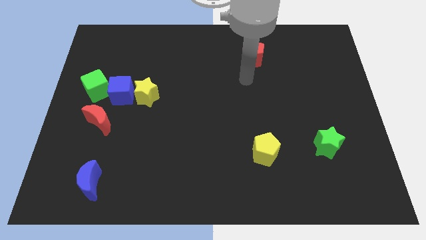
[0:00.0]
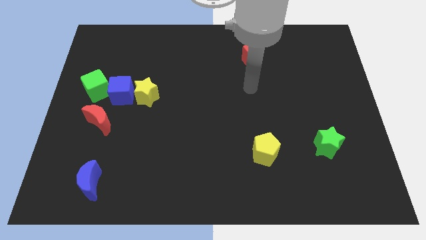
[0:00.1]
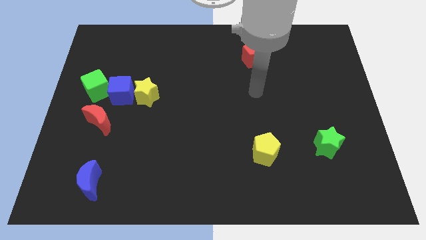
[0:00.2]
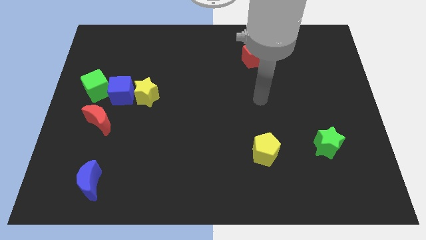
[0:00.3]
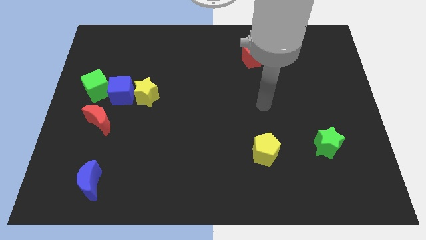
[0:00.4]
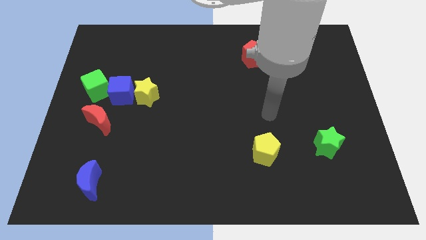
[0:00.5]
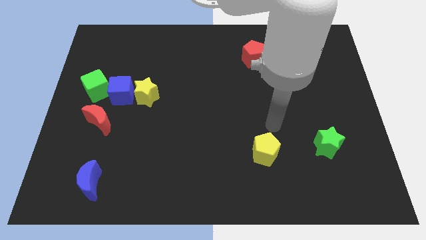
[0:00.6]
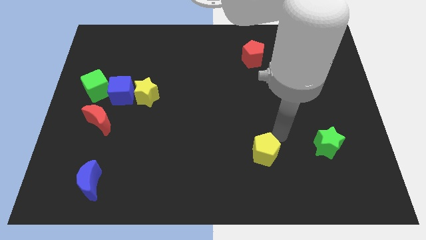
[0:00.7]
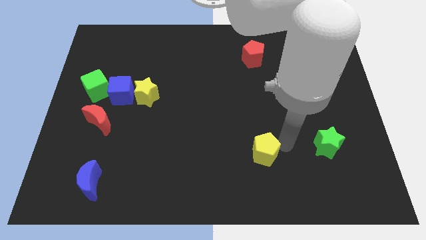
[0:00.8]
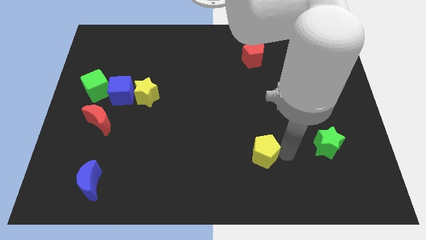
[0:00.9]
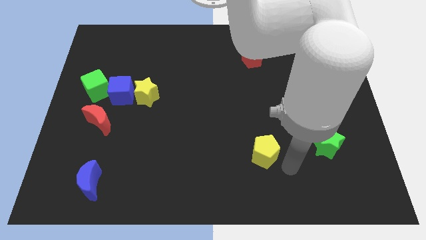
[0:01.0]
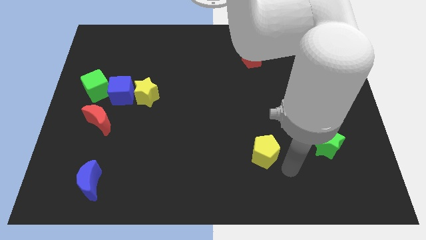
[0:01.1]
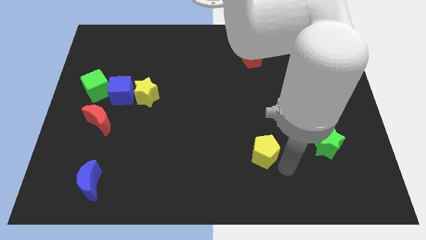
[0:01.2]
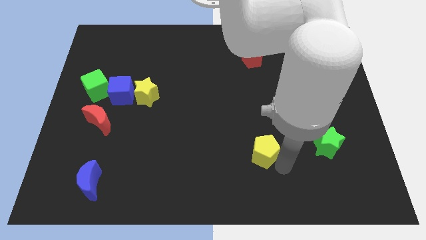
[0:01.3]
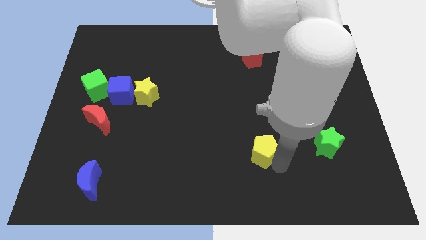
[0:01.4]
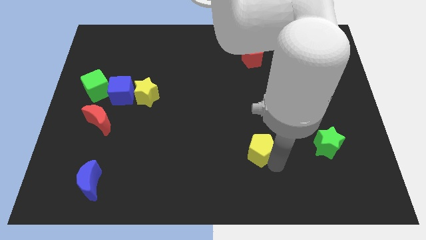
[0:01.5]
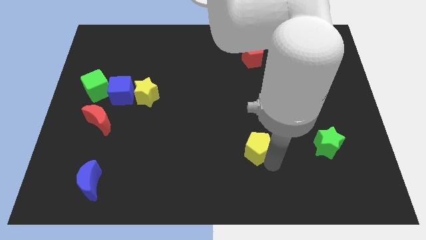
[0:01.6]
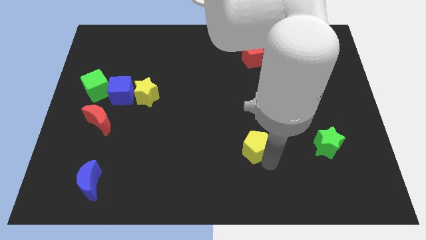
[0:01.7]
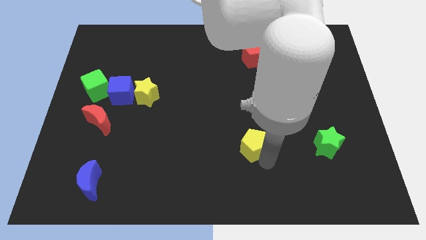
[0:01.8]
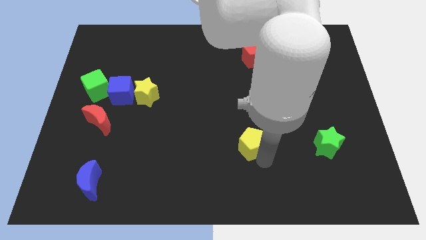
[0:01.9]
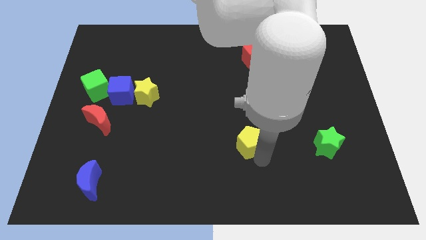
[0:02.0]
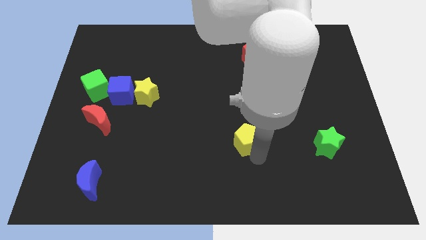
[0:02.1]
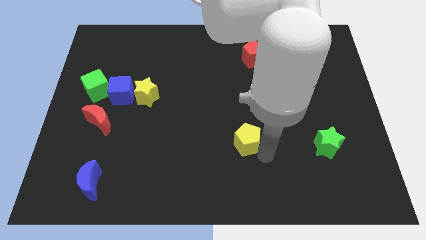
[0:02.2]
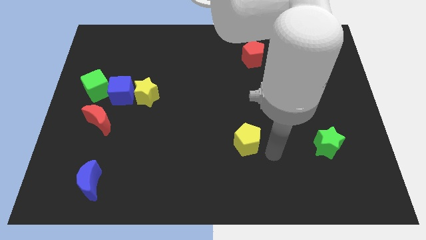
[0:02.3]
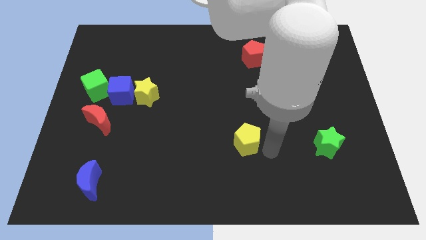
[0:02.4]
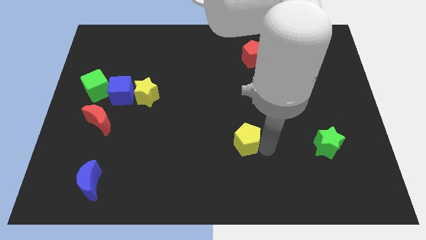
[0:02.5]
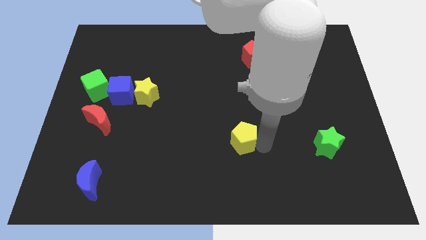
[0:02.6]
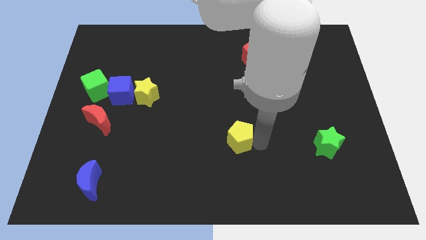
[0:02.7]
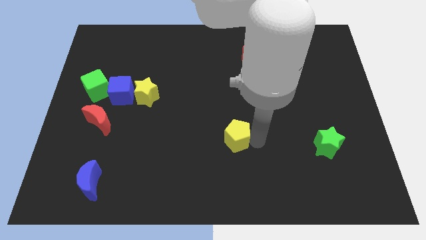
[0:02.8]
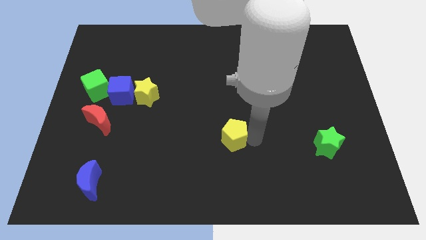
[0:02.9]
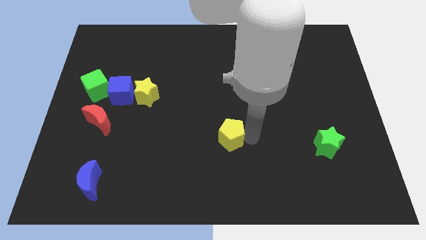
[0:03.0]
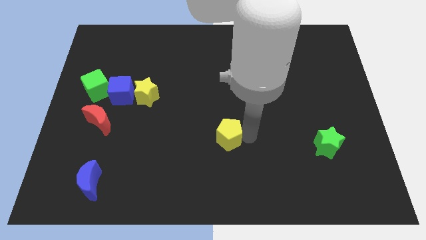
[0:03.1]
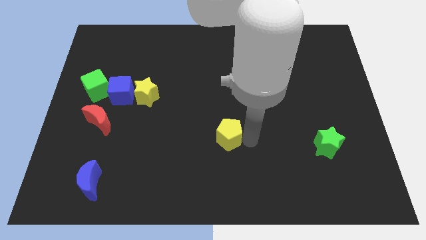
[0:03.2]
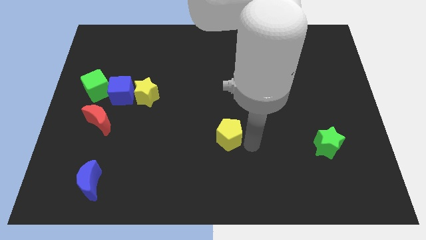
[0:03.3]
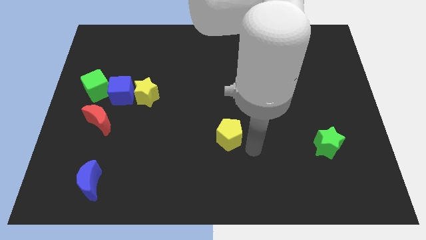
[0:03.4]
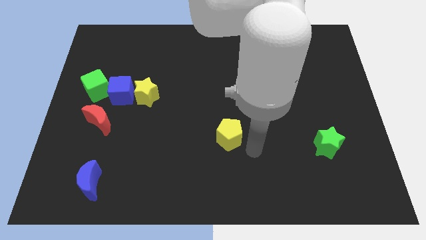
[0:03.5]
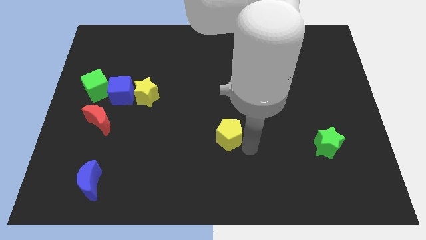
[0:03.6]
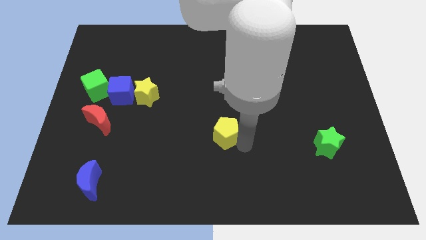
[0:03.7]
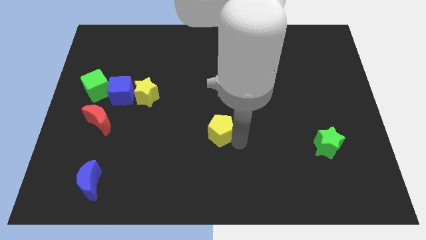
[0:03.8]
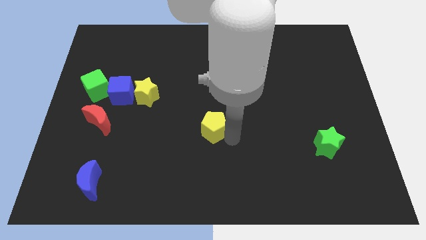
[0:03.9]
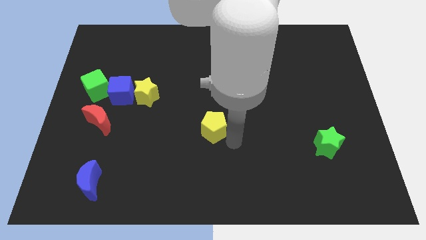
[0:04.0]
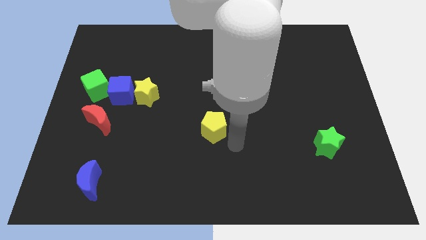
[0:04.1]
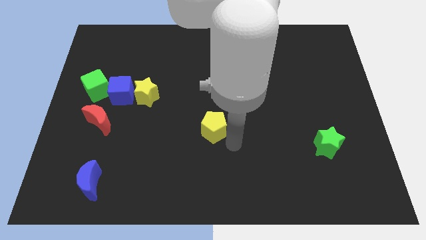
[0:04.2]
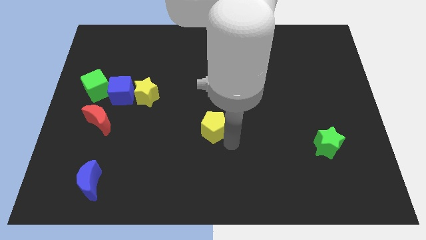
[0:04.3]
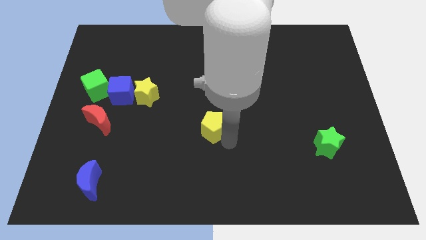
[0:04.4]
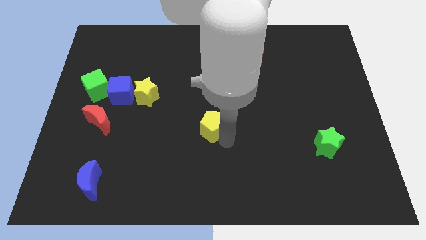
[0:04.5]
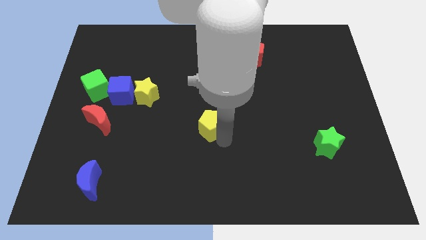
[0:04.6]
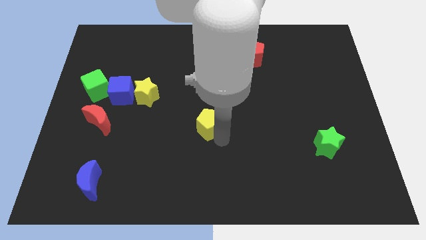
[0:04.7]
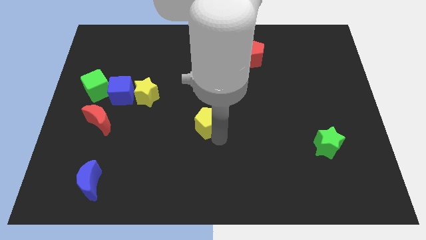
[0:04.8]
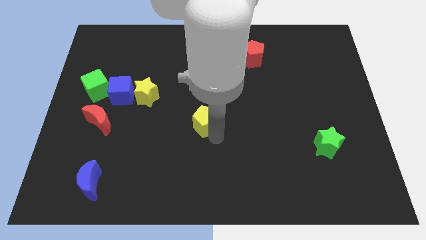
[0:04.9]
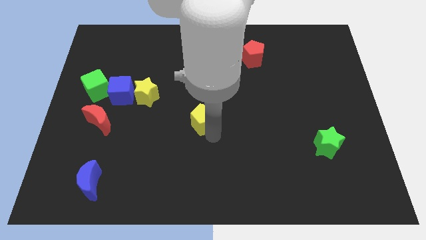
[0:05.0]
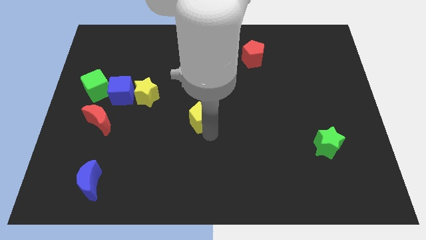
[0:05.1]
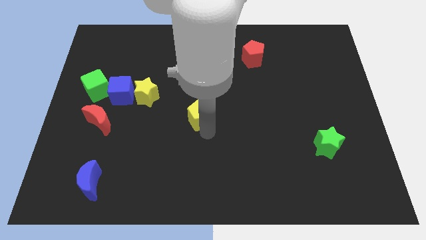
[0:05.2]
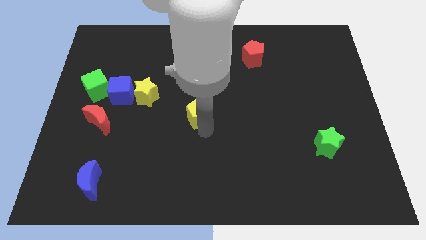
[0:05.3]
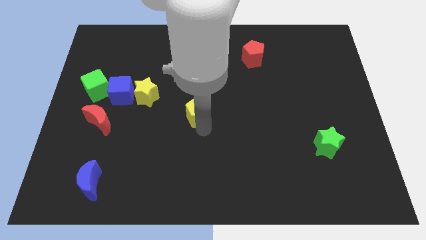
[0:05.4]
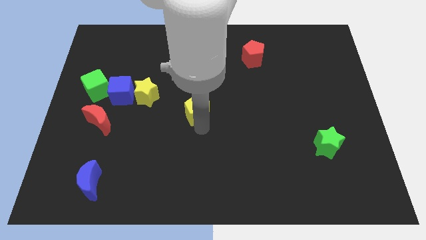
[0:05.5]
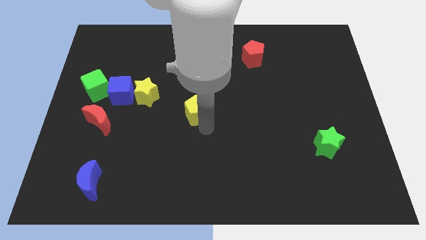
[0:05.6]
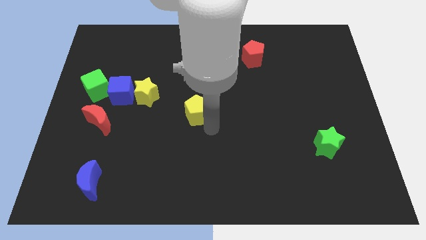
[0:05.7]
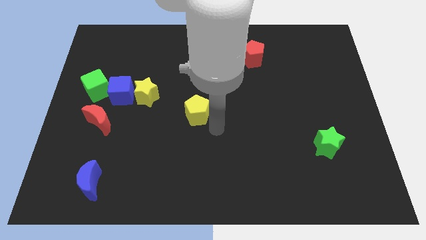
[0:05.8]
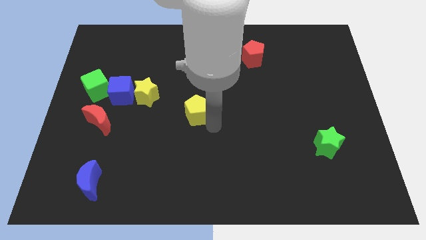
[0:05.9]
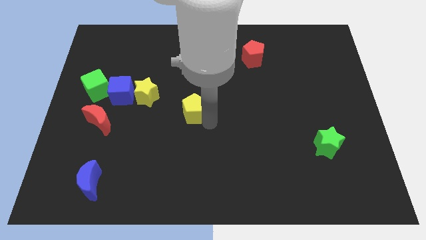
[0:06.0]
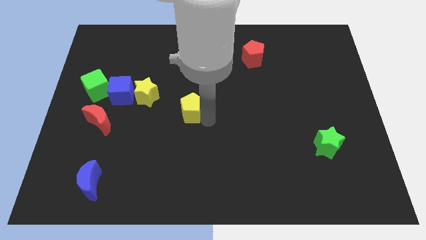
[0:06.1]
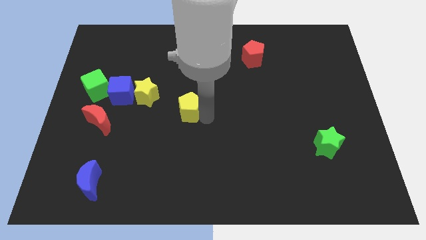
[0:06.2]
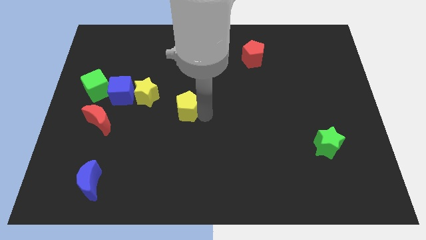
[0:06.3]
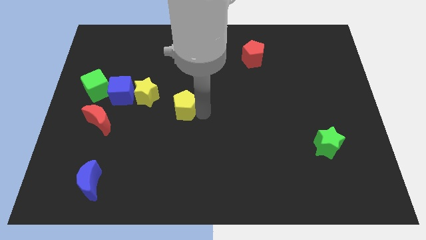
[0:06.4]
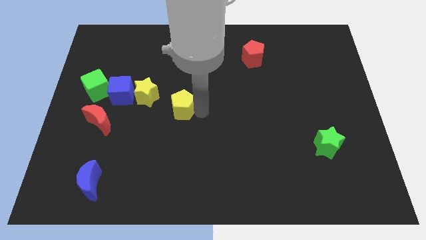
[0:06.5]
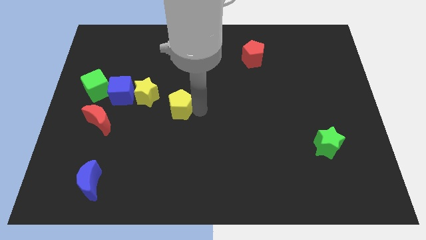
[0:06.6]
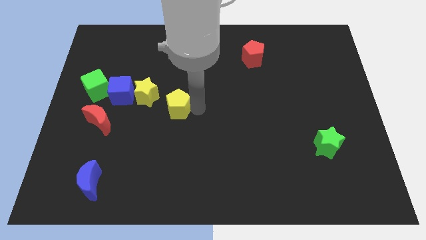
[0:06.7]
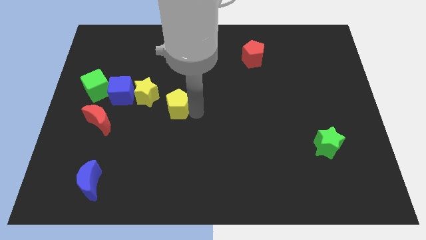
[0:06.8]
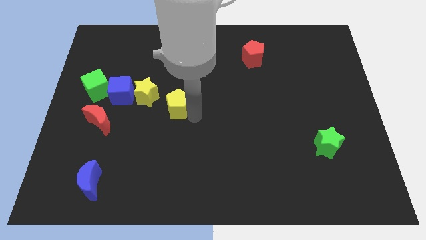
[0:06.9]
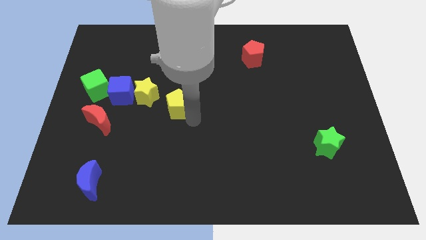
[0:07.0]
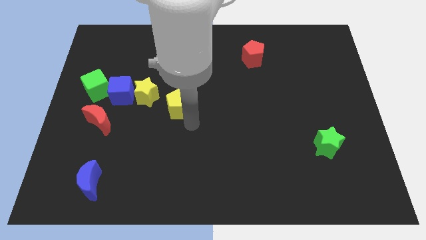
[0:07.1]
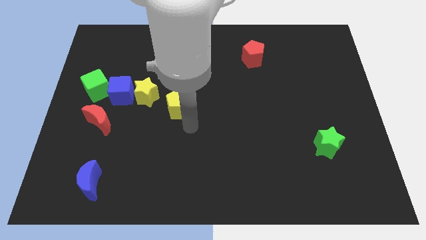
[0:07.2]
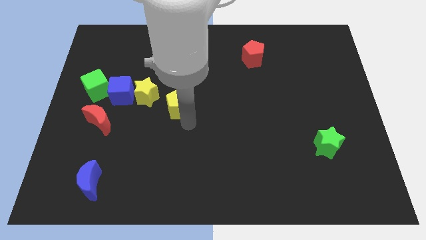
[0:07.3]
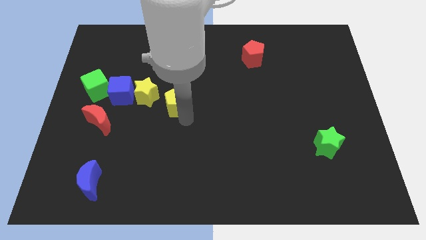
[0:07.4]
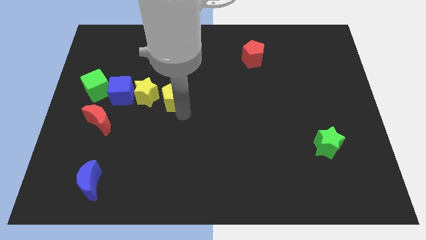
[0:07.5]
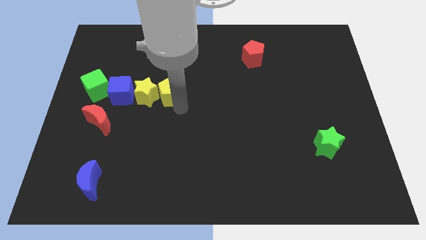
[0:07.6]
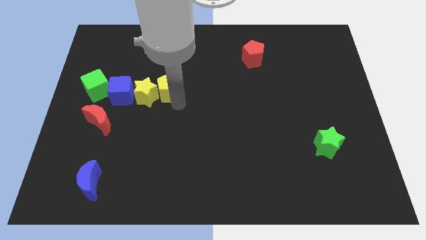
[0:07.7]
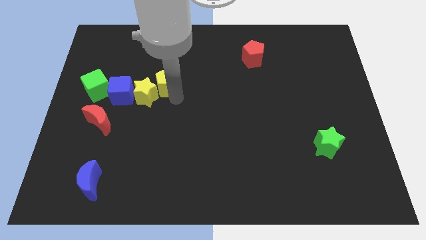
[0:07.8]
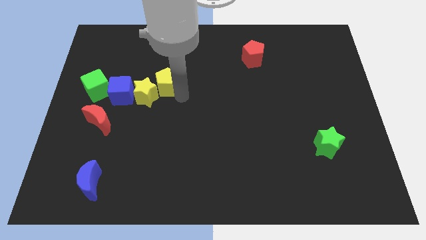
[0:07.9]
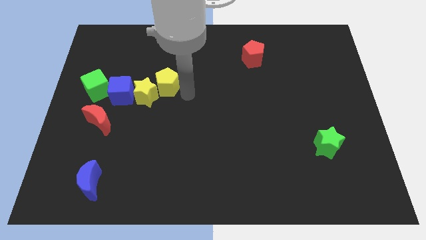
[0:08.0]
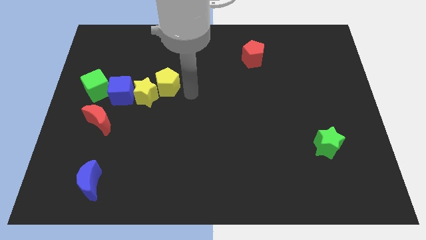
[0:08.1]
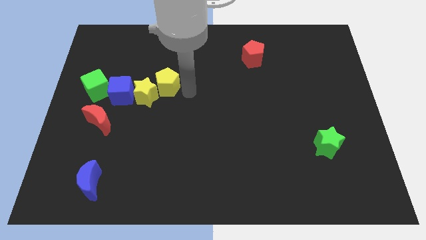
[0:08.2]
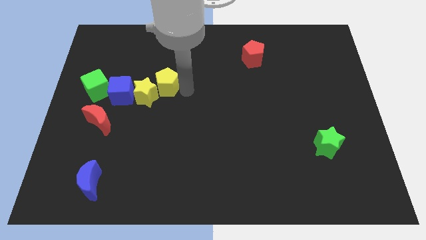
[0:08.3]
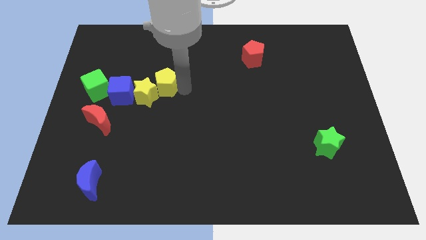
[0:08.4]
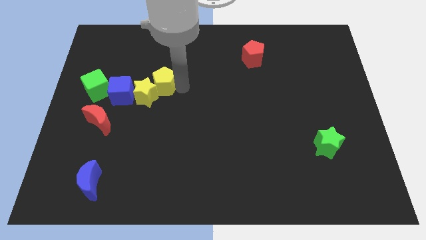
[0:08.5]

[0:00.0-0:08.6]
slide the yellow pentagon diagonally up and to the right of the blue cube
